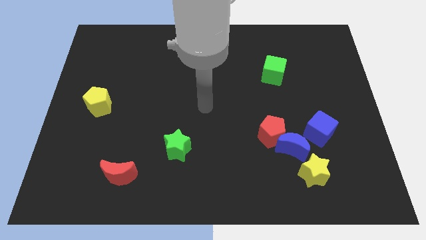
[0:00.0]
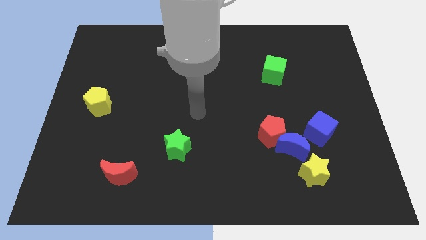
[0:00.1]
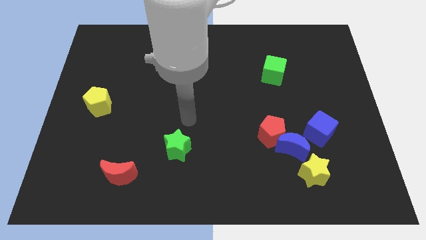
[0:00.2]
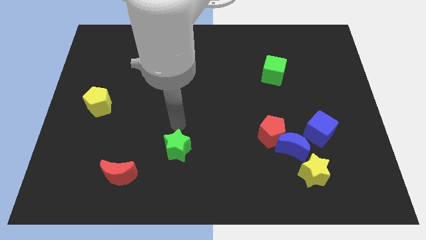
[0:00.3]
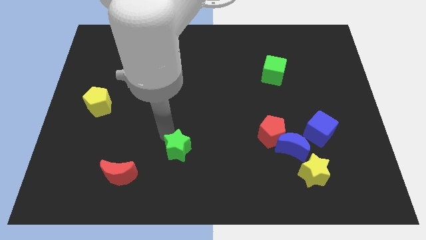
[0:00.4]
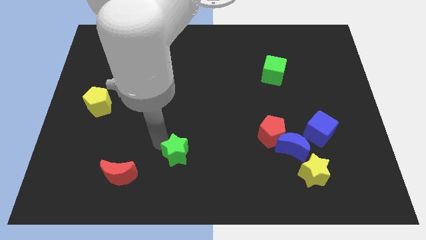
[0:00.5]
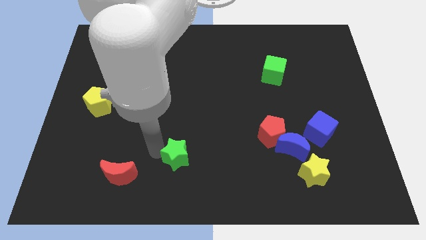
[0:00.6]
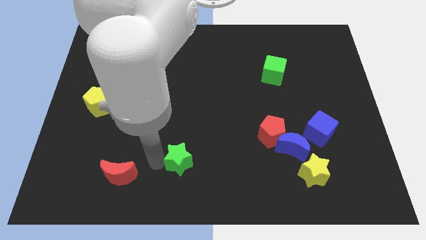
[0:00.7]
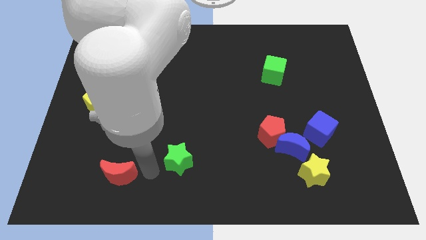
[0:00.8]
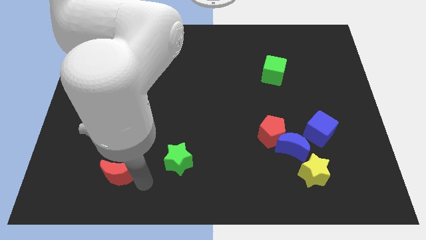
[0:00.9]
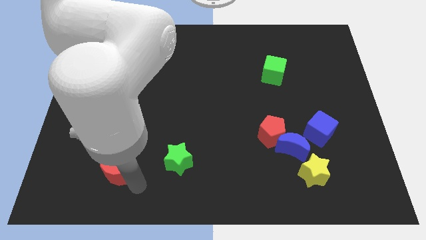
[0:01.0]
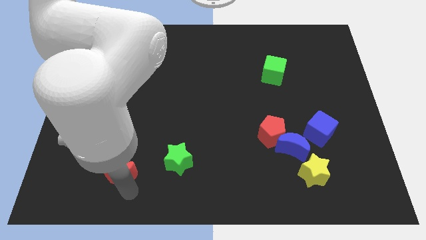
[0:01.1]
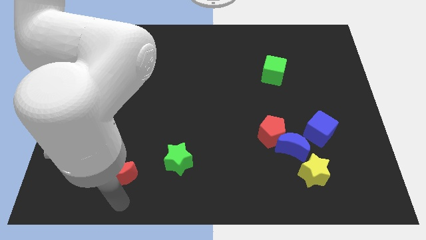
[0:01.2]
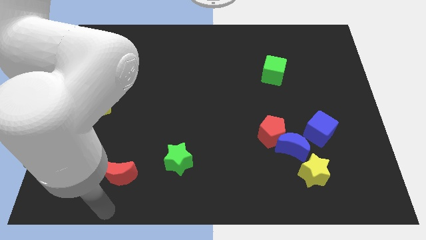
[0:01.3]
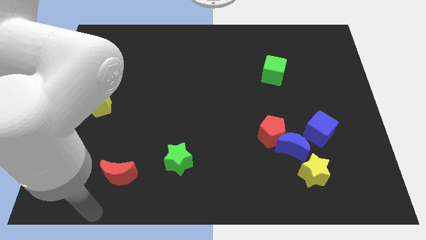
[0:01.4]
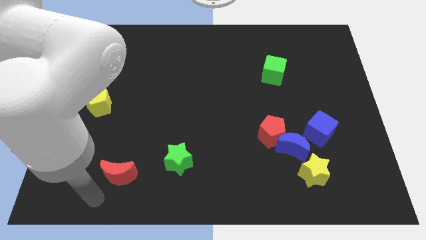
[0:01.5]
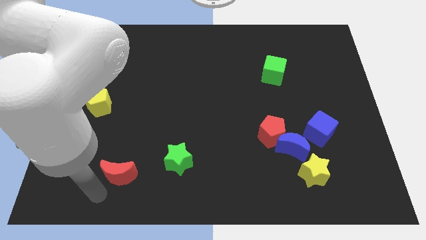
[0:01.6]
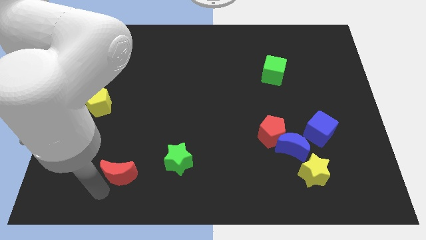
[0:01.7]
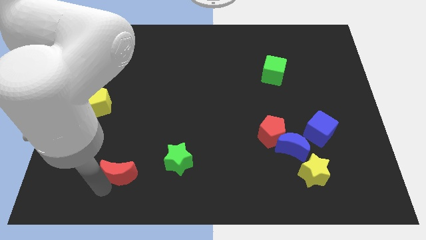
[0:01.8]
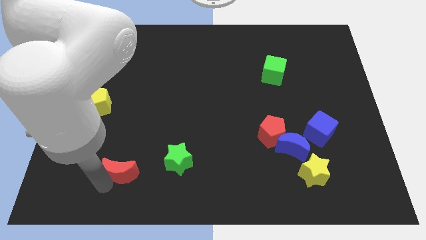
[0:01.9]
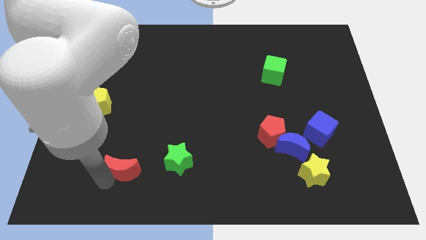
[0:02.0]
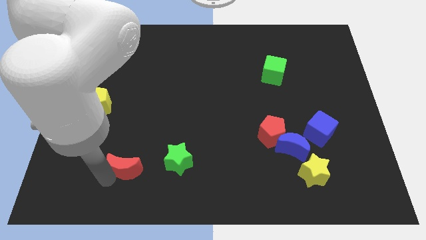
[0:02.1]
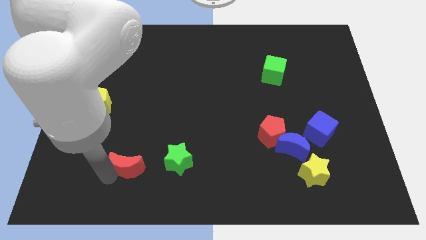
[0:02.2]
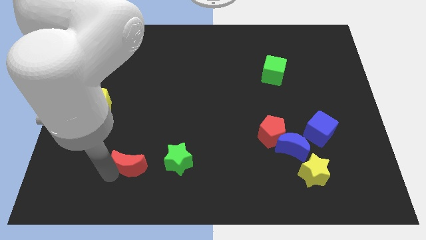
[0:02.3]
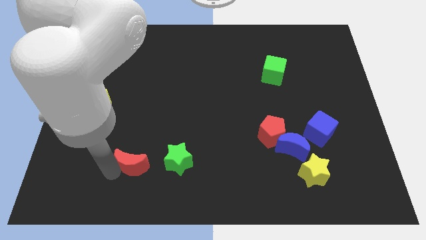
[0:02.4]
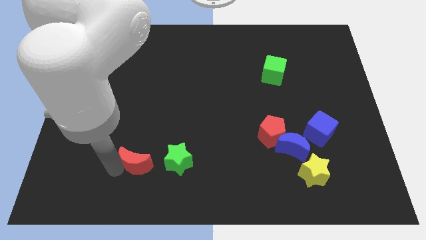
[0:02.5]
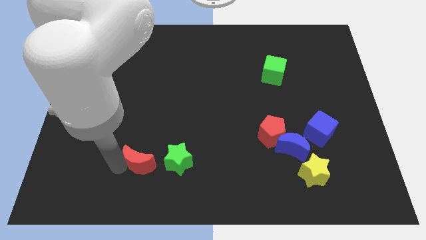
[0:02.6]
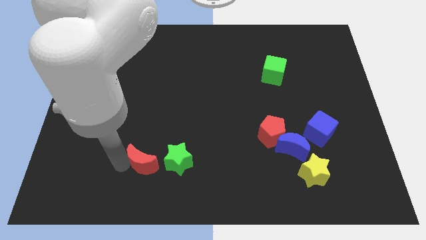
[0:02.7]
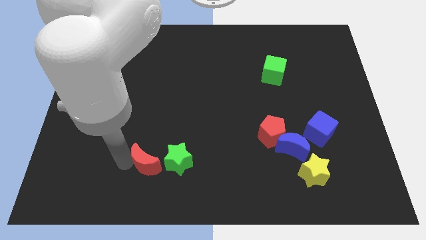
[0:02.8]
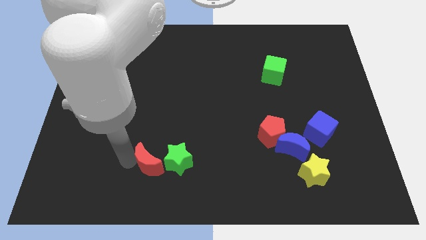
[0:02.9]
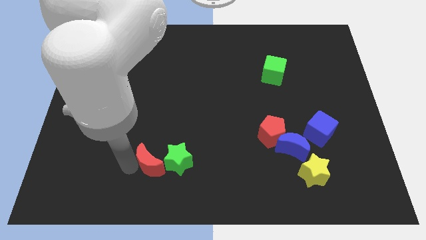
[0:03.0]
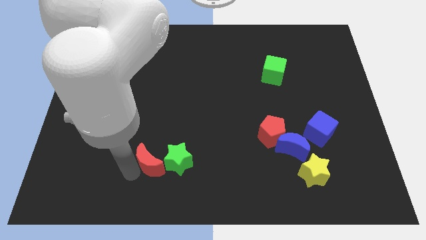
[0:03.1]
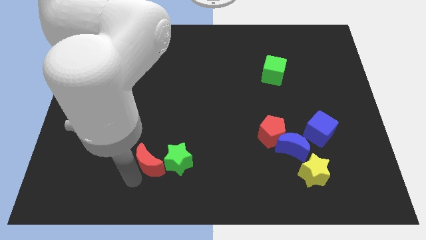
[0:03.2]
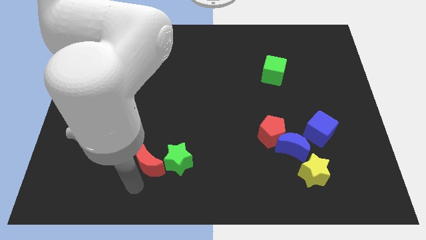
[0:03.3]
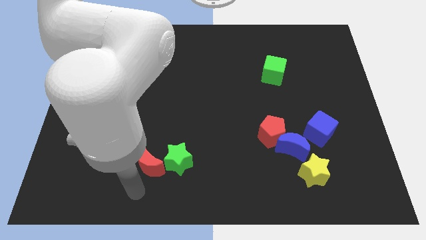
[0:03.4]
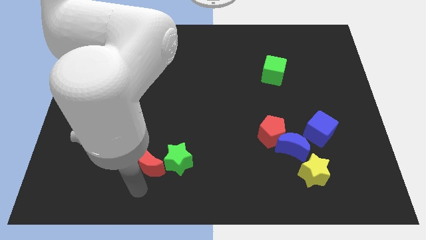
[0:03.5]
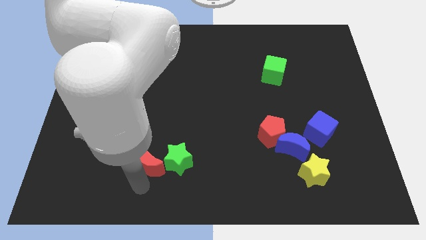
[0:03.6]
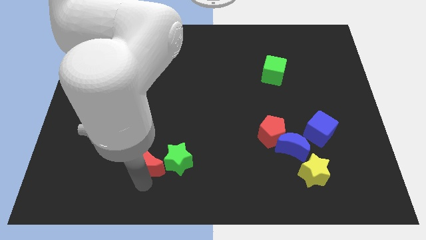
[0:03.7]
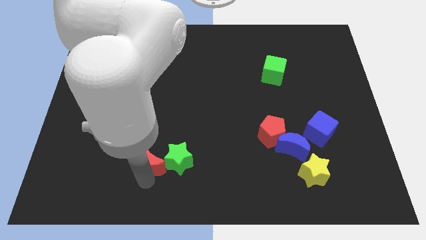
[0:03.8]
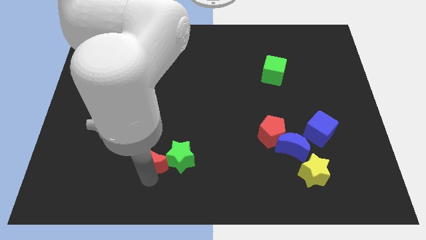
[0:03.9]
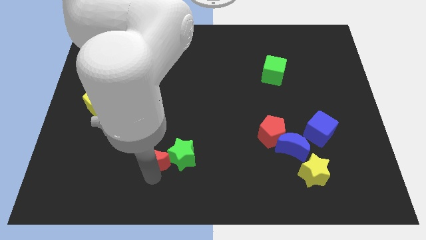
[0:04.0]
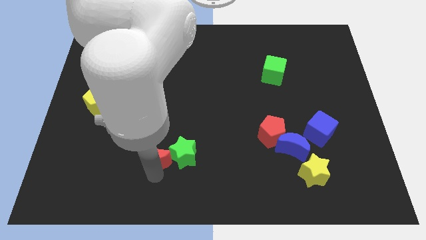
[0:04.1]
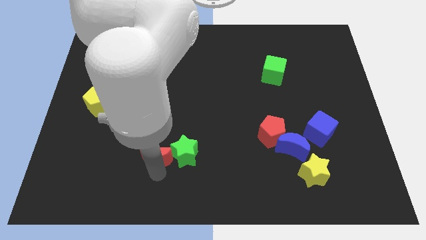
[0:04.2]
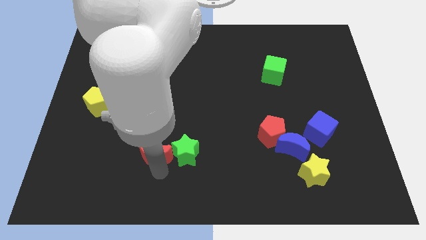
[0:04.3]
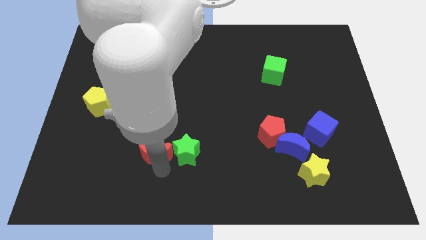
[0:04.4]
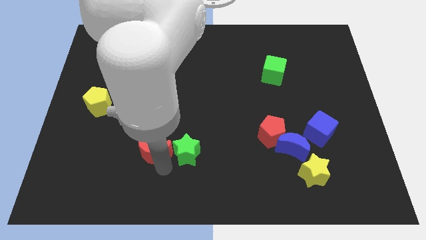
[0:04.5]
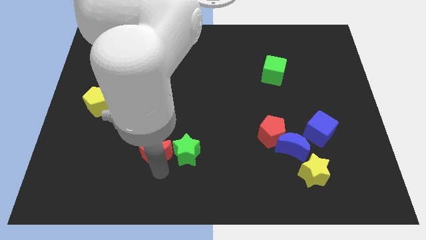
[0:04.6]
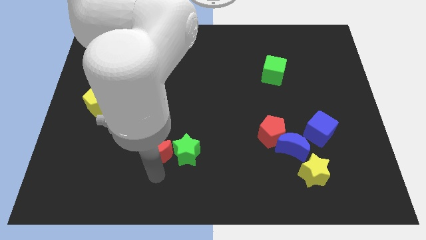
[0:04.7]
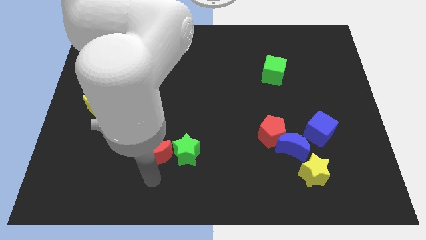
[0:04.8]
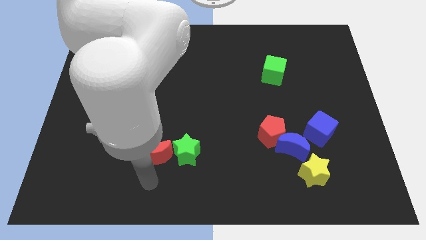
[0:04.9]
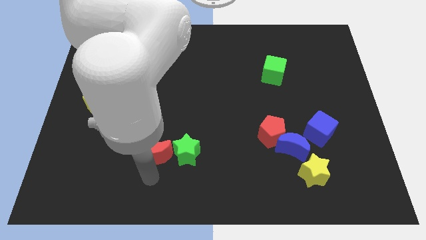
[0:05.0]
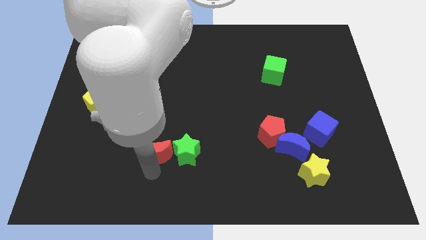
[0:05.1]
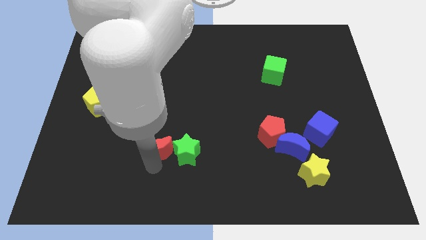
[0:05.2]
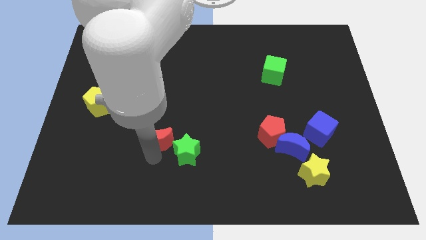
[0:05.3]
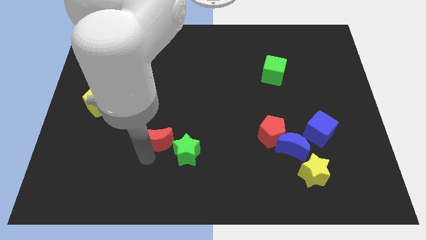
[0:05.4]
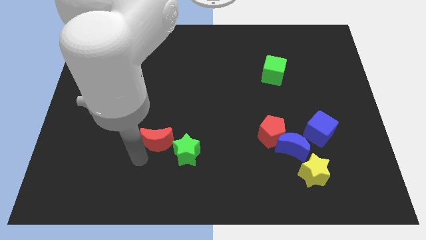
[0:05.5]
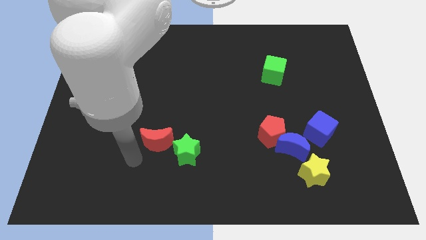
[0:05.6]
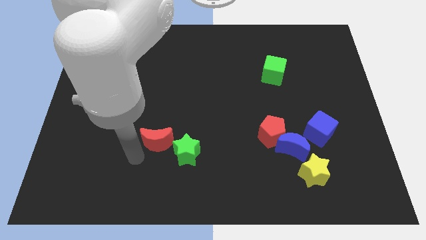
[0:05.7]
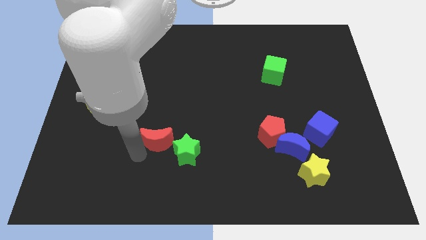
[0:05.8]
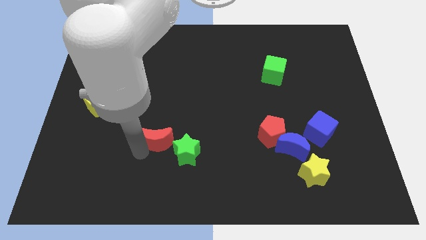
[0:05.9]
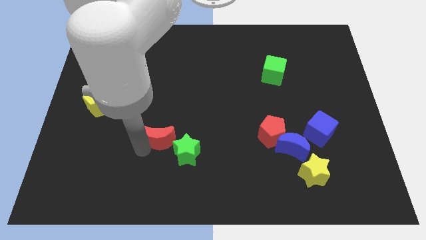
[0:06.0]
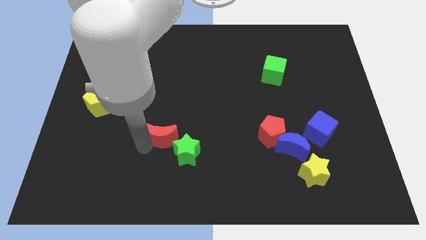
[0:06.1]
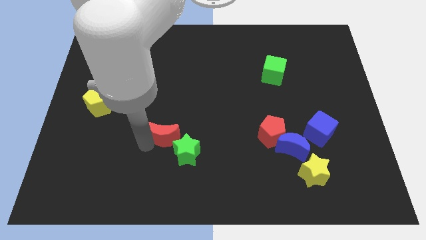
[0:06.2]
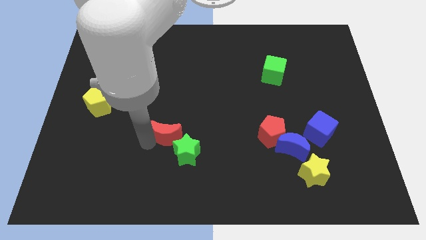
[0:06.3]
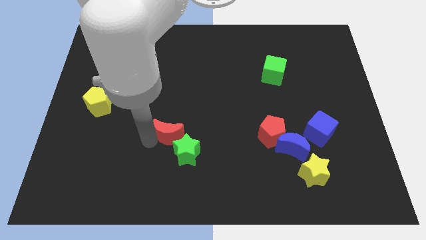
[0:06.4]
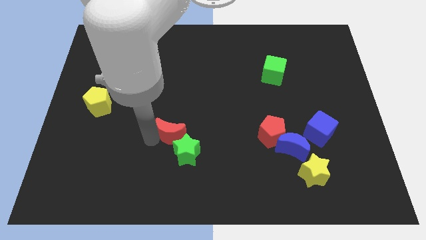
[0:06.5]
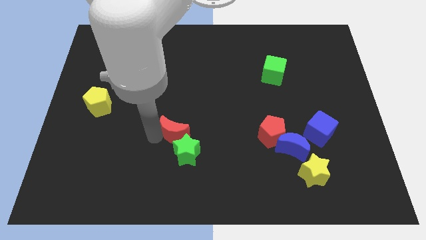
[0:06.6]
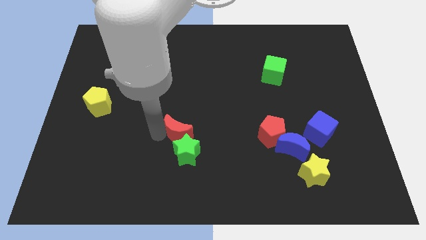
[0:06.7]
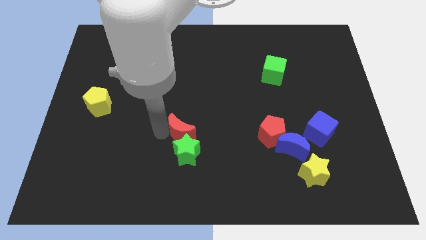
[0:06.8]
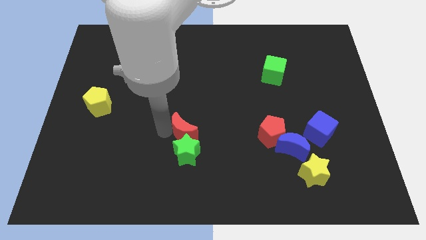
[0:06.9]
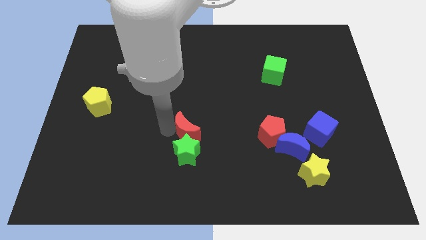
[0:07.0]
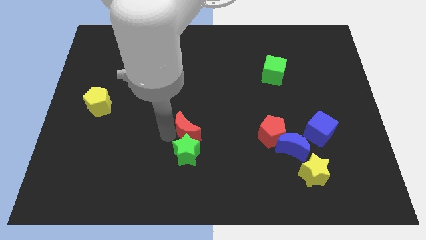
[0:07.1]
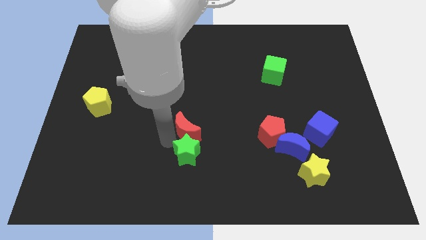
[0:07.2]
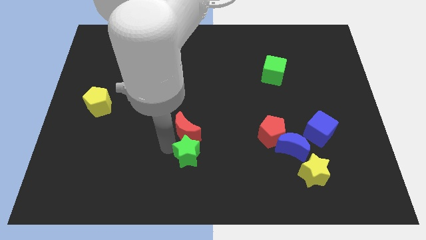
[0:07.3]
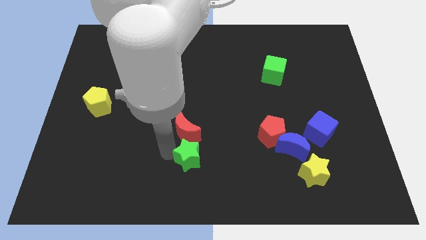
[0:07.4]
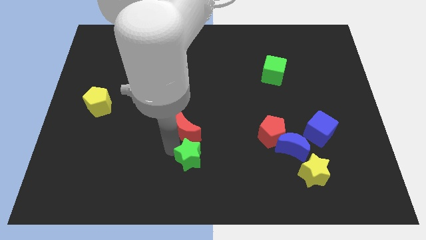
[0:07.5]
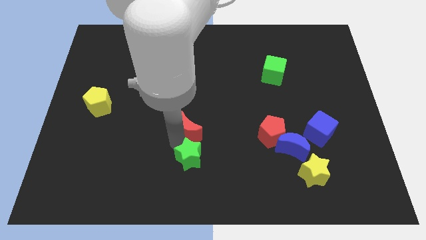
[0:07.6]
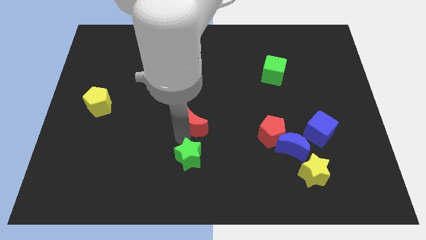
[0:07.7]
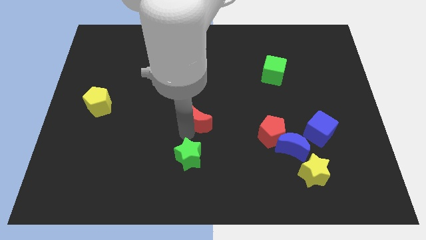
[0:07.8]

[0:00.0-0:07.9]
push the red moon upwards and to the right

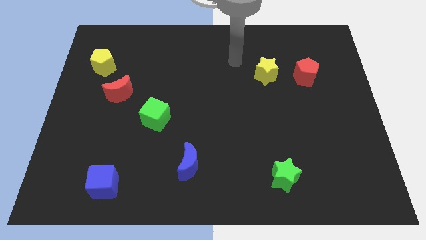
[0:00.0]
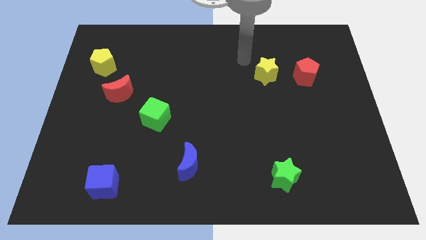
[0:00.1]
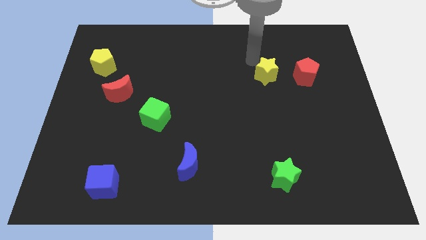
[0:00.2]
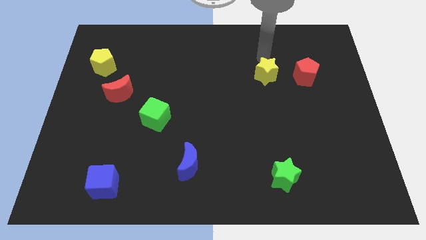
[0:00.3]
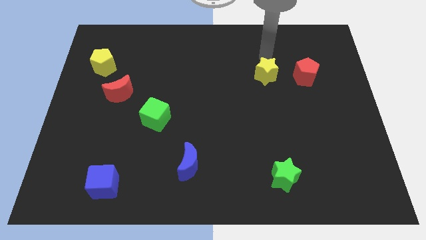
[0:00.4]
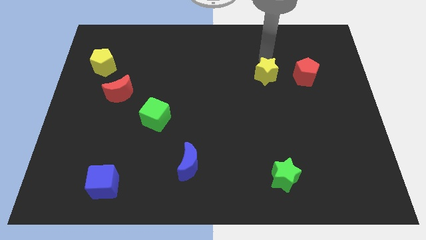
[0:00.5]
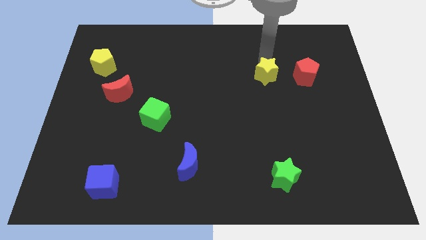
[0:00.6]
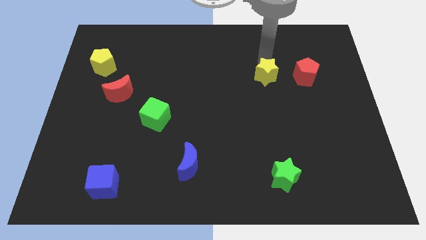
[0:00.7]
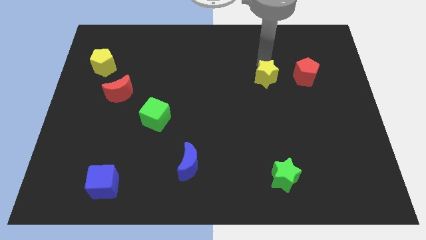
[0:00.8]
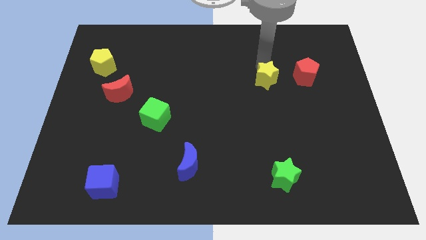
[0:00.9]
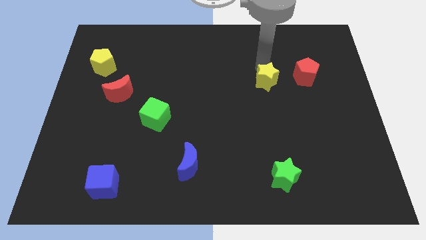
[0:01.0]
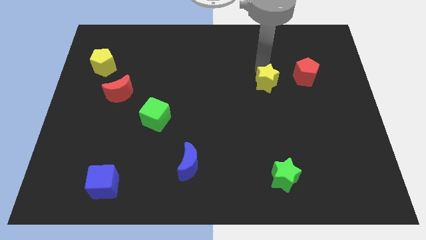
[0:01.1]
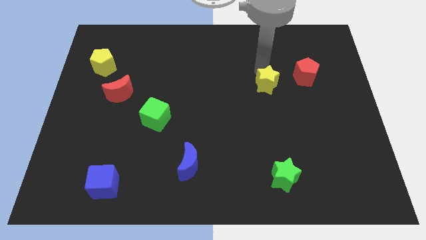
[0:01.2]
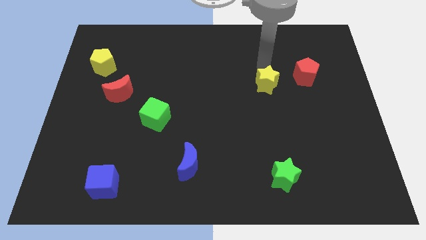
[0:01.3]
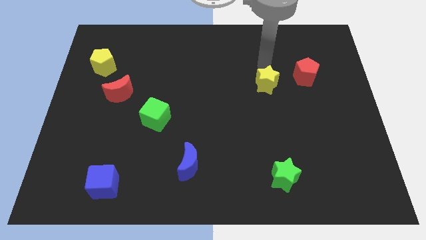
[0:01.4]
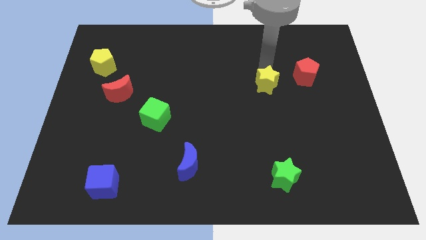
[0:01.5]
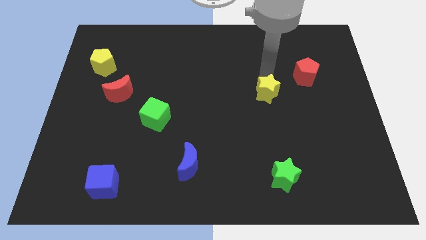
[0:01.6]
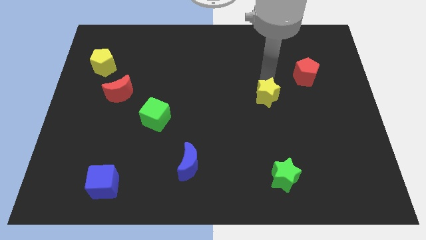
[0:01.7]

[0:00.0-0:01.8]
move the yellow star downwards a little bit
